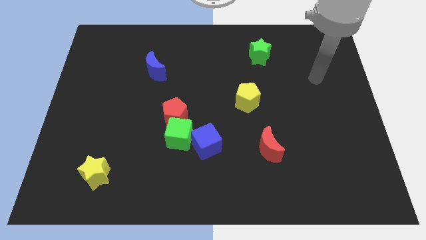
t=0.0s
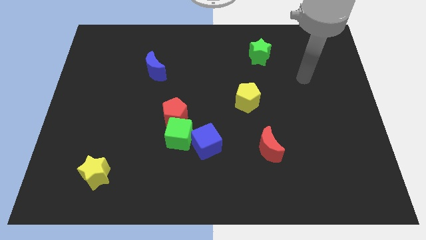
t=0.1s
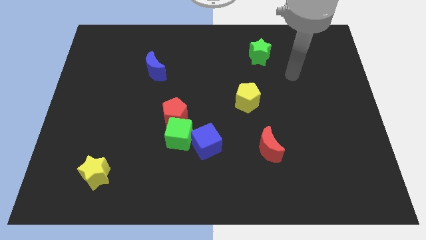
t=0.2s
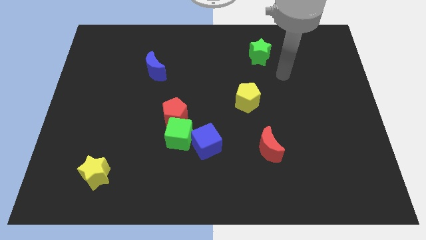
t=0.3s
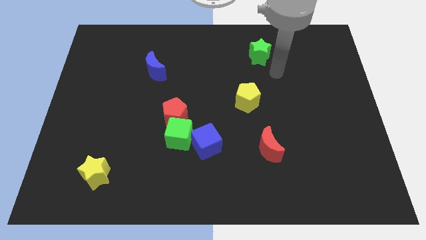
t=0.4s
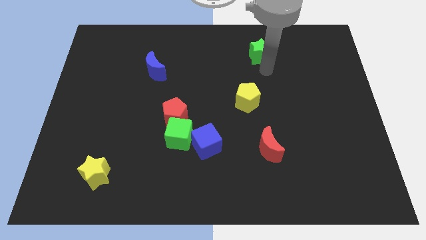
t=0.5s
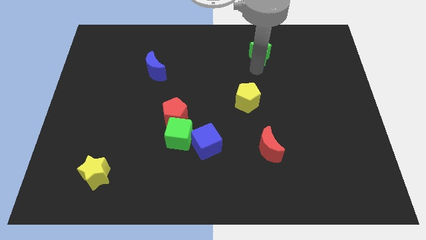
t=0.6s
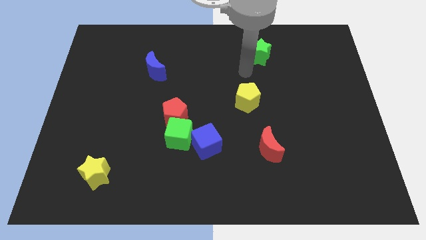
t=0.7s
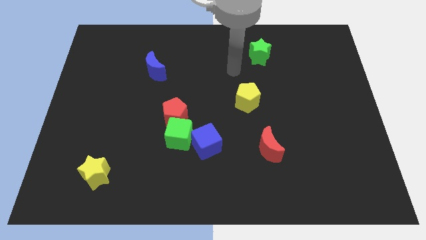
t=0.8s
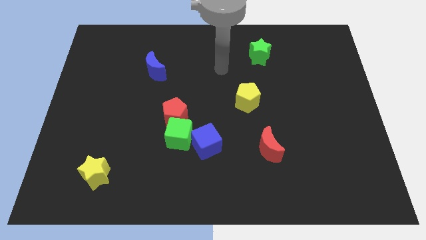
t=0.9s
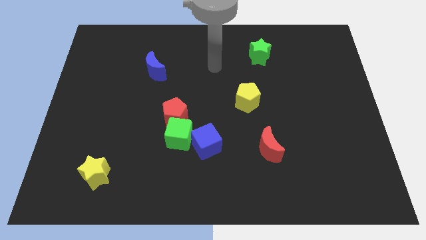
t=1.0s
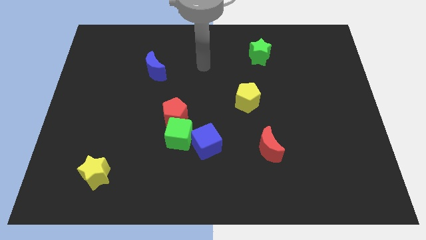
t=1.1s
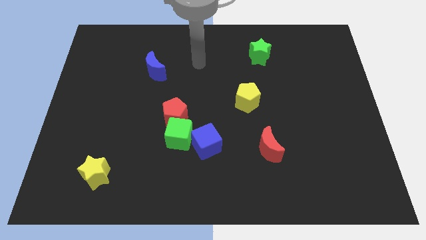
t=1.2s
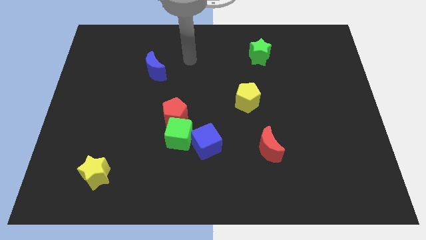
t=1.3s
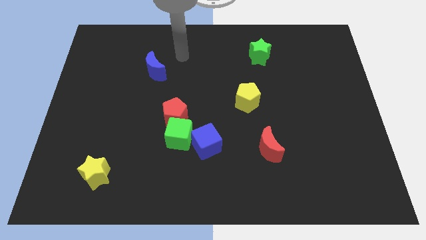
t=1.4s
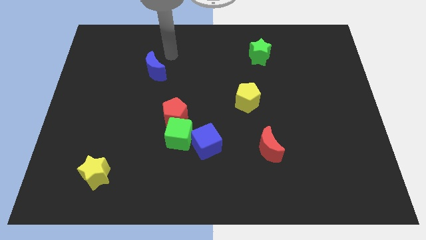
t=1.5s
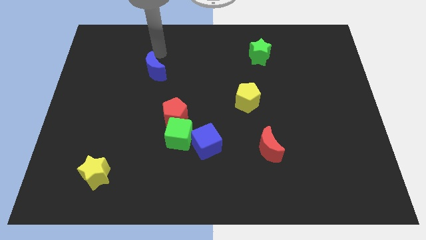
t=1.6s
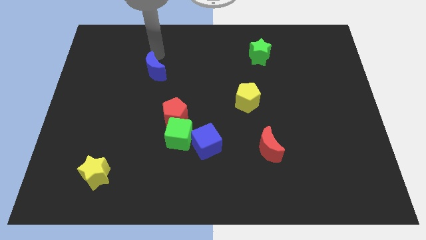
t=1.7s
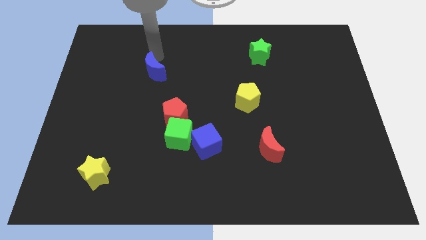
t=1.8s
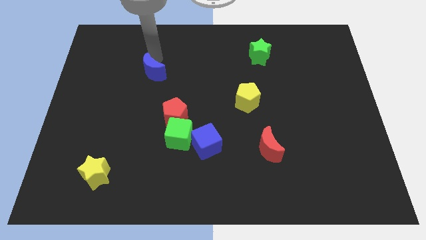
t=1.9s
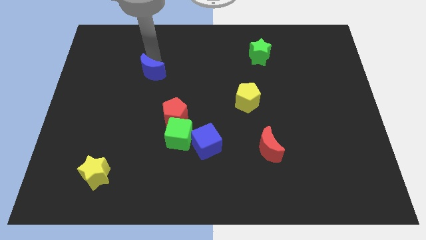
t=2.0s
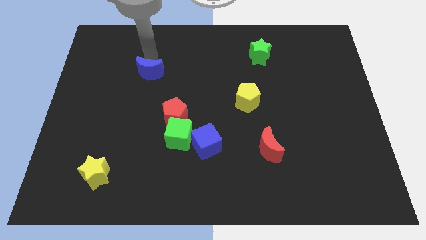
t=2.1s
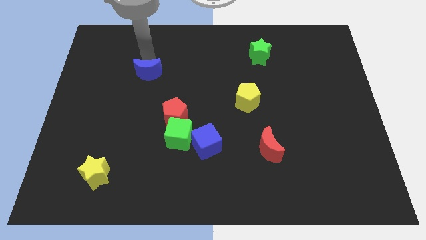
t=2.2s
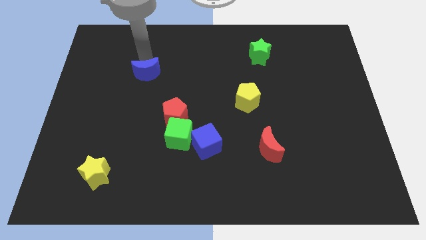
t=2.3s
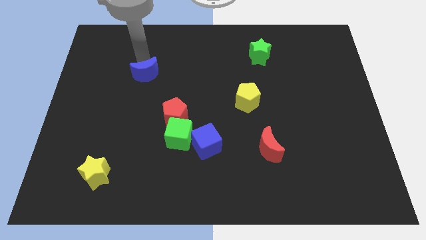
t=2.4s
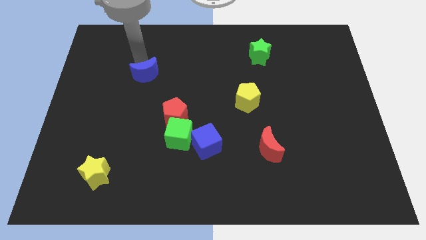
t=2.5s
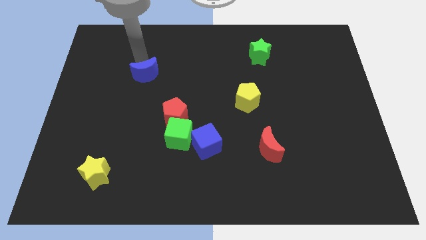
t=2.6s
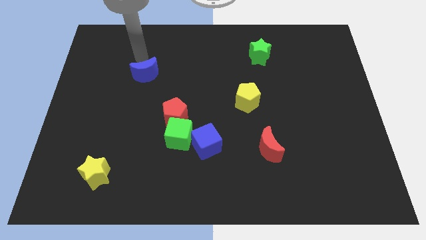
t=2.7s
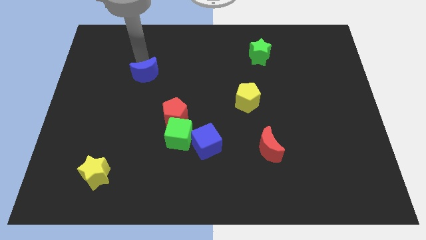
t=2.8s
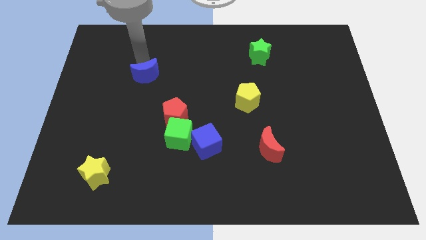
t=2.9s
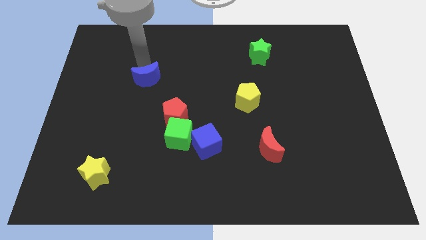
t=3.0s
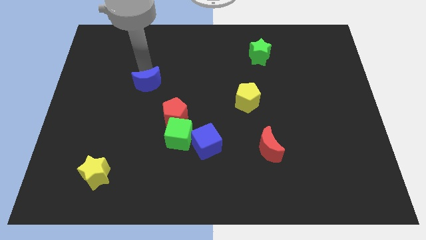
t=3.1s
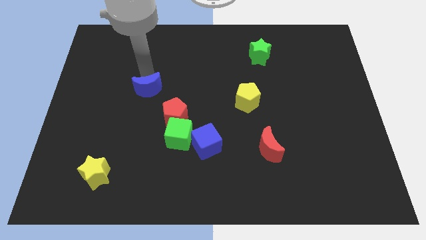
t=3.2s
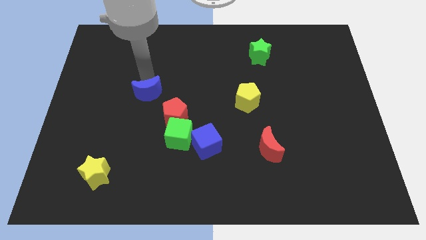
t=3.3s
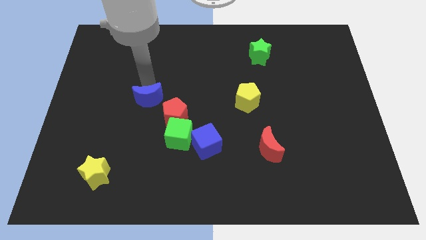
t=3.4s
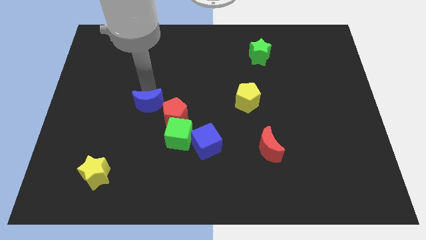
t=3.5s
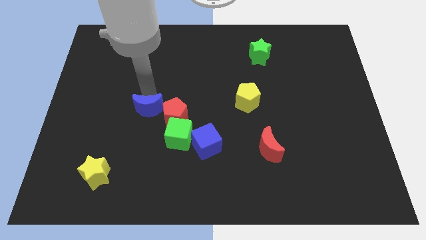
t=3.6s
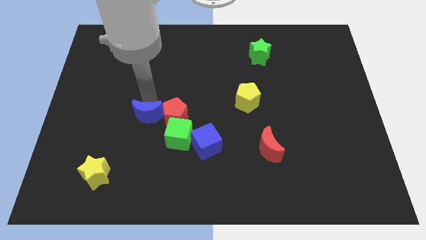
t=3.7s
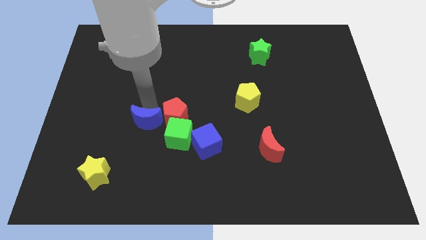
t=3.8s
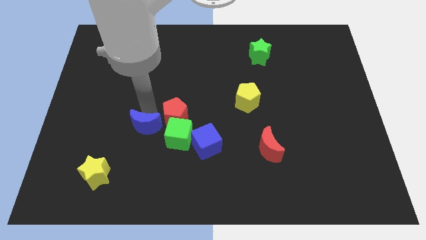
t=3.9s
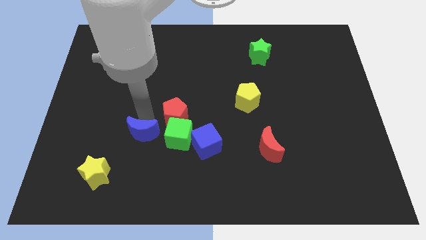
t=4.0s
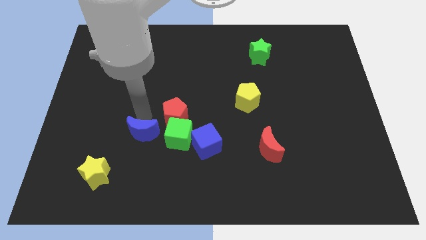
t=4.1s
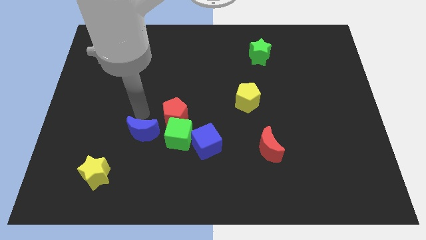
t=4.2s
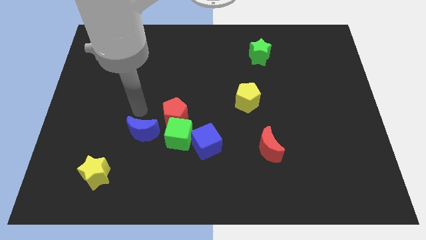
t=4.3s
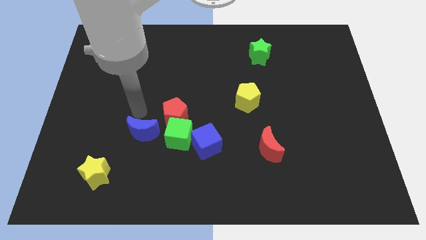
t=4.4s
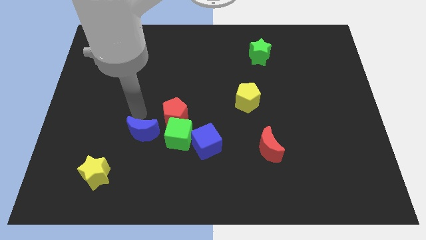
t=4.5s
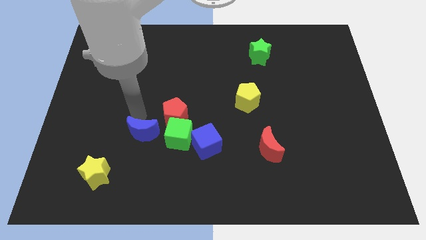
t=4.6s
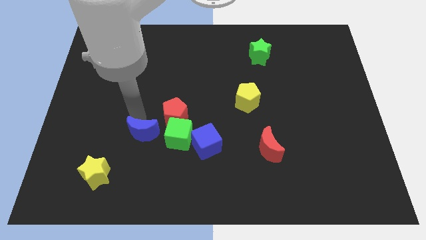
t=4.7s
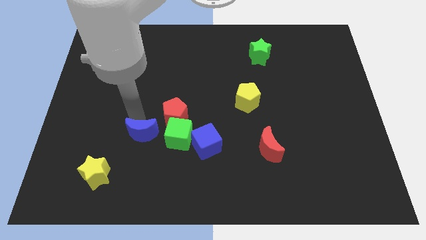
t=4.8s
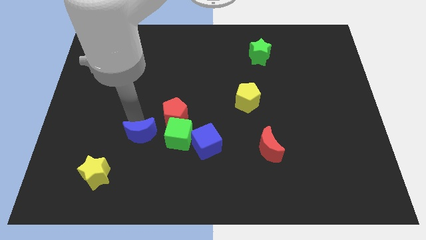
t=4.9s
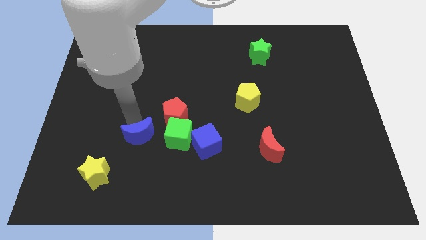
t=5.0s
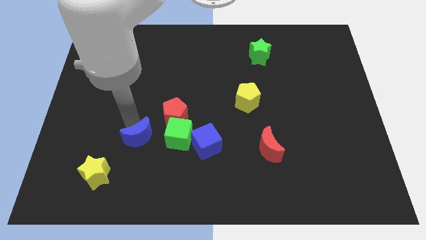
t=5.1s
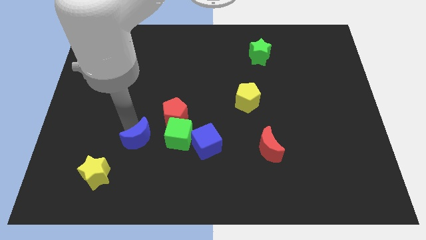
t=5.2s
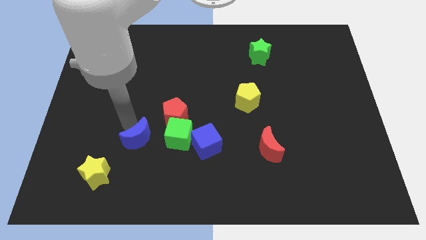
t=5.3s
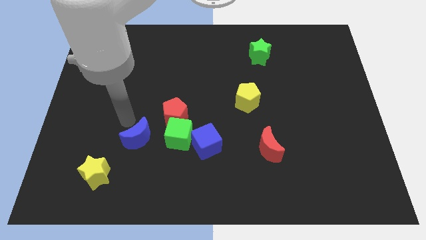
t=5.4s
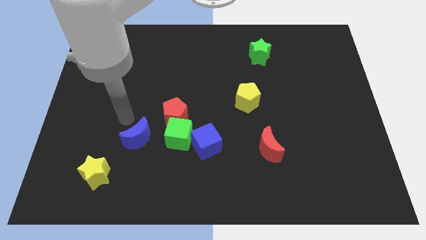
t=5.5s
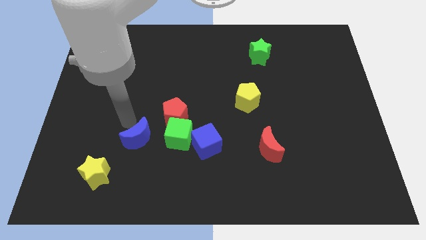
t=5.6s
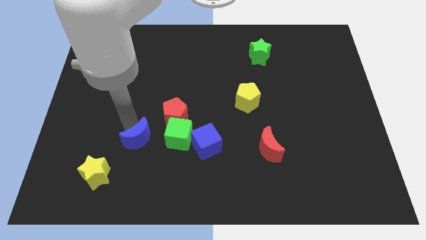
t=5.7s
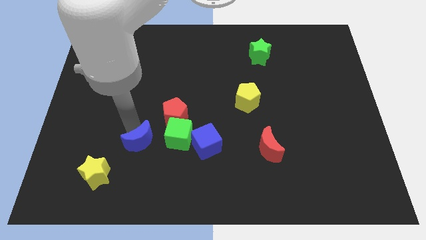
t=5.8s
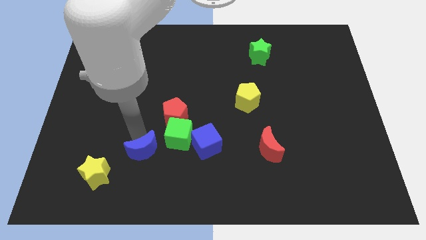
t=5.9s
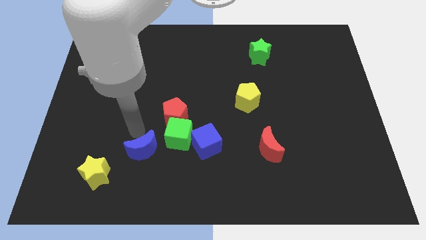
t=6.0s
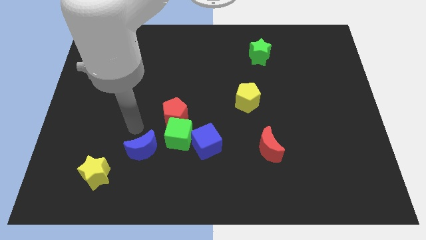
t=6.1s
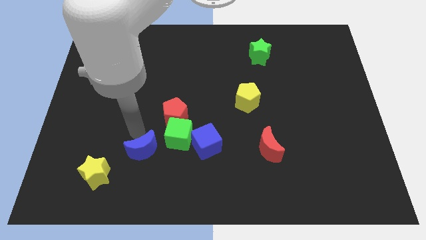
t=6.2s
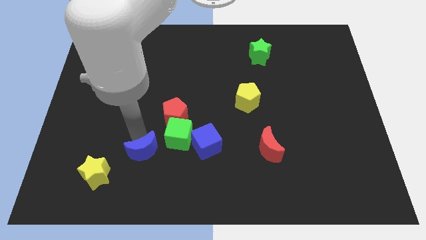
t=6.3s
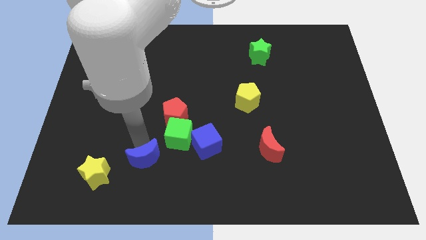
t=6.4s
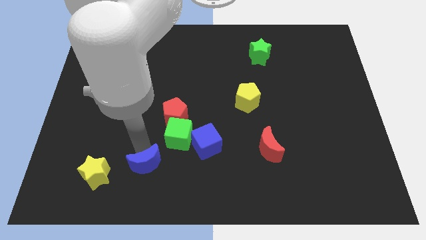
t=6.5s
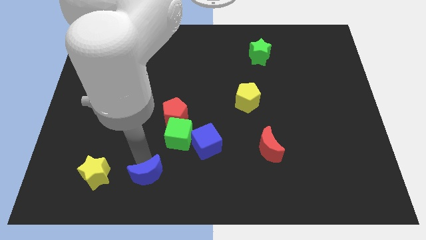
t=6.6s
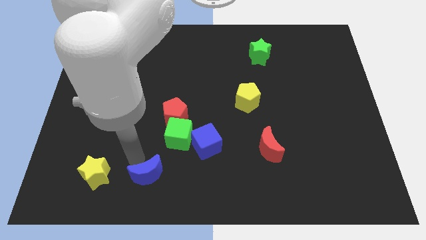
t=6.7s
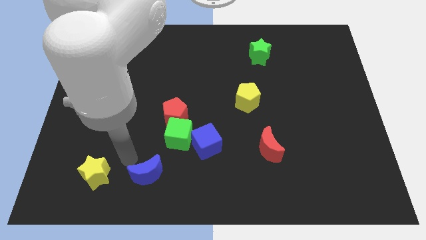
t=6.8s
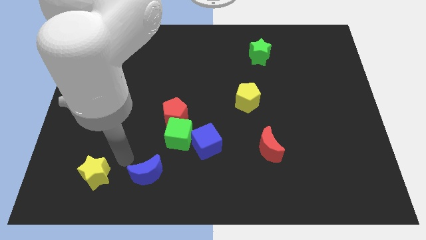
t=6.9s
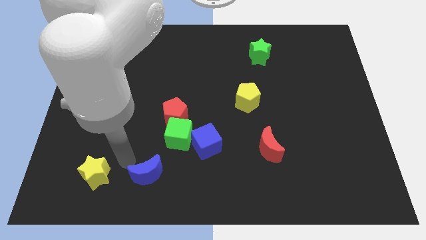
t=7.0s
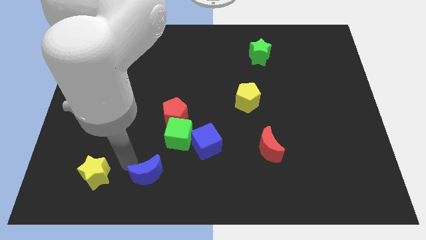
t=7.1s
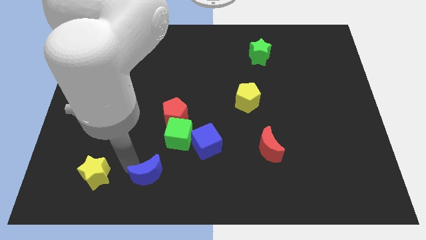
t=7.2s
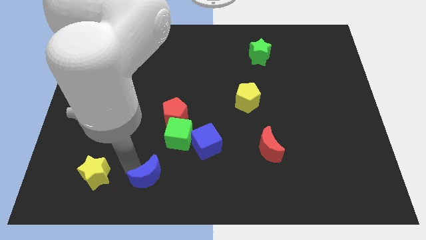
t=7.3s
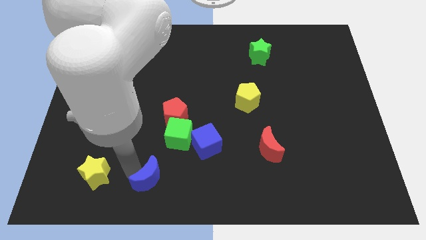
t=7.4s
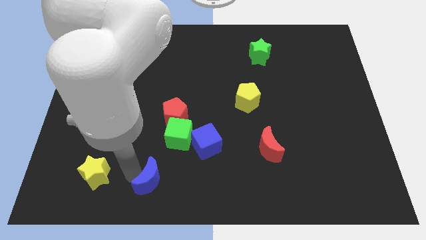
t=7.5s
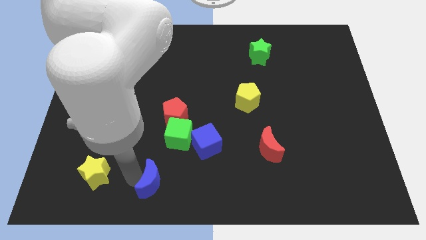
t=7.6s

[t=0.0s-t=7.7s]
push the blue moon to the bottom
